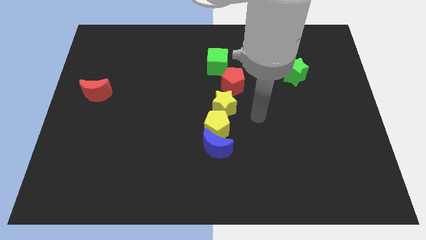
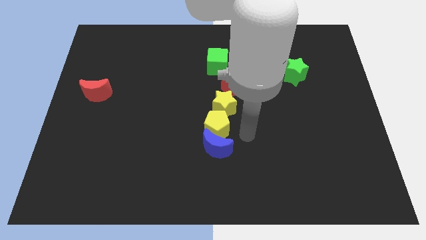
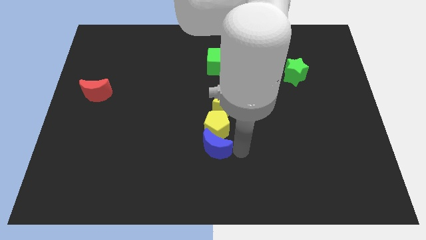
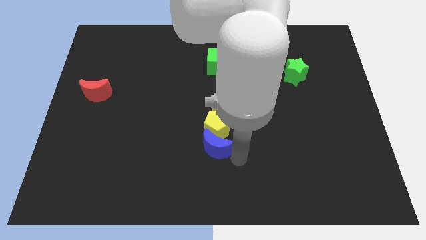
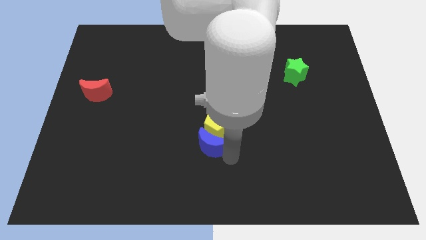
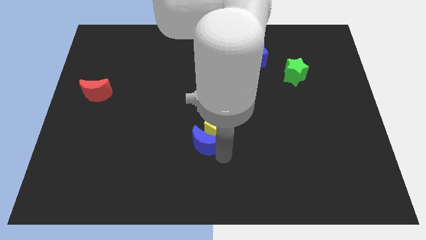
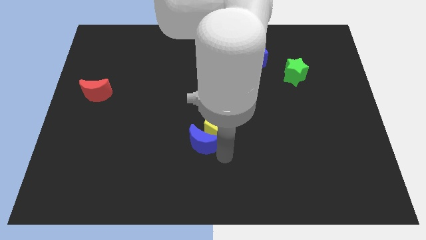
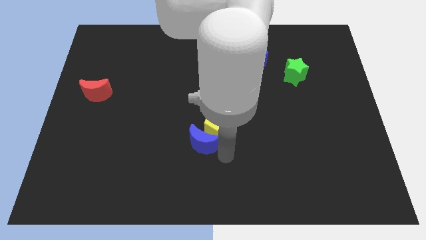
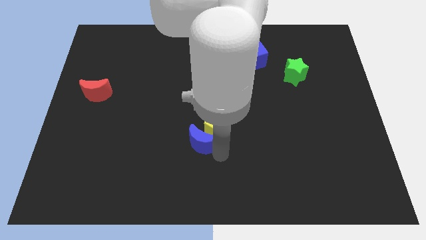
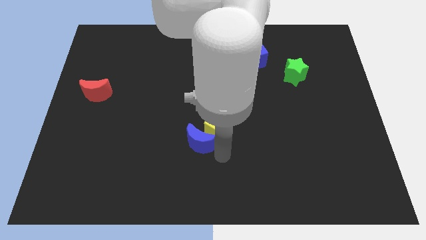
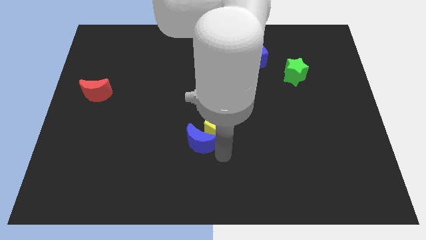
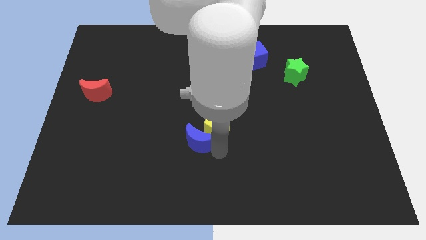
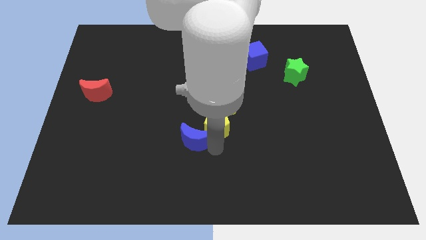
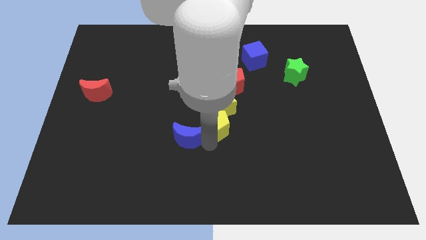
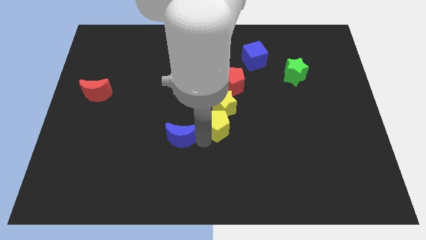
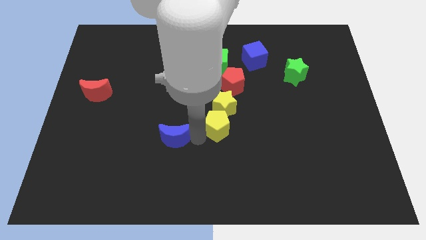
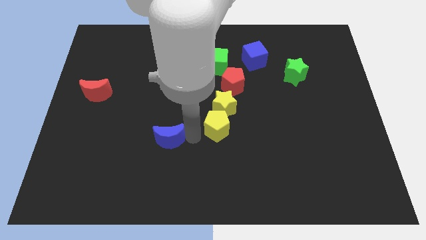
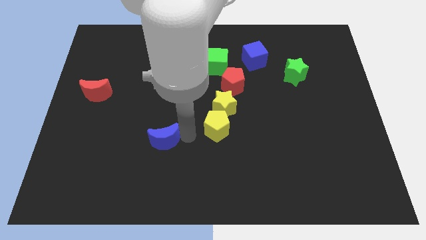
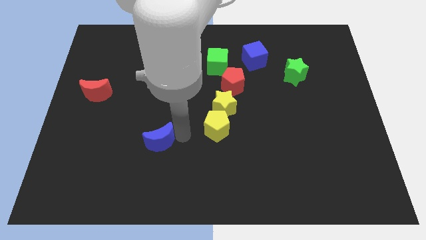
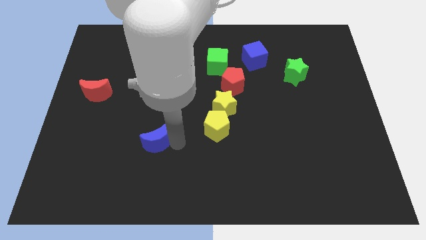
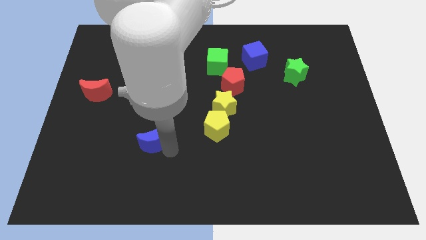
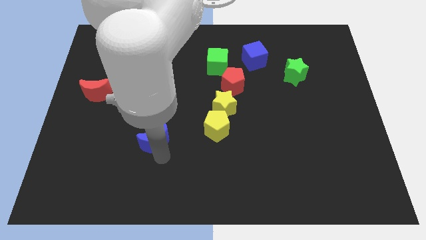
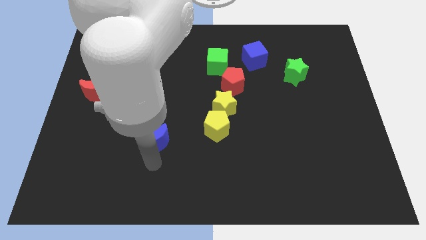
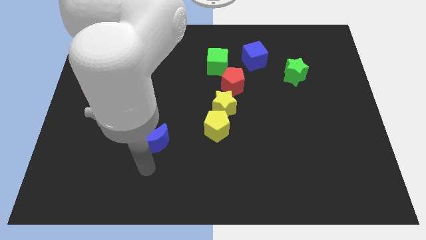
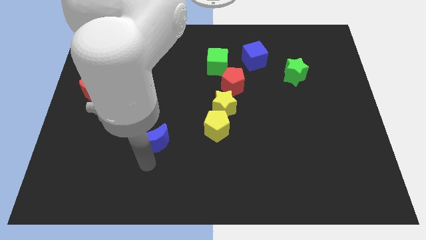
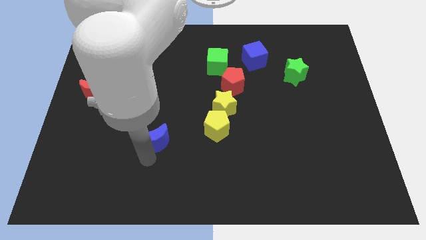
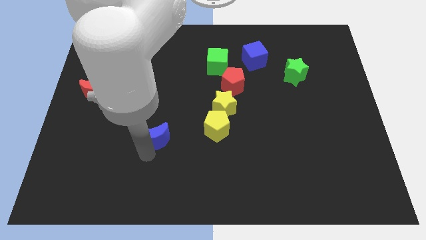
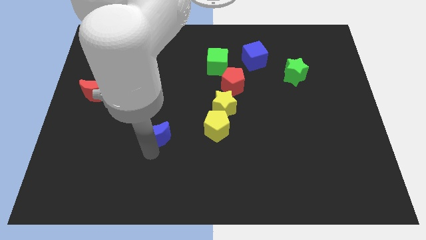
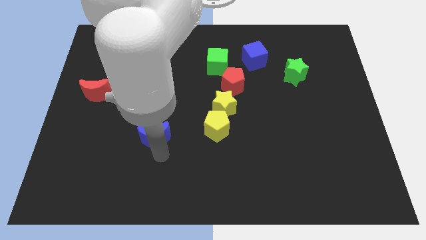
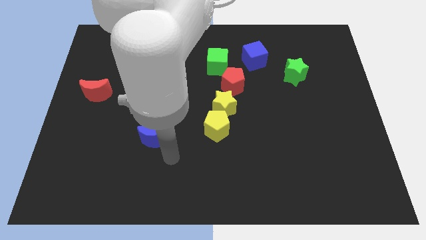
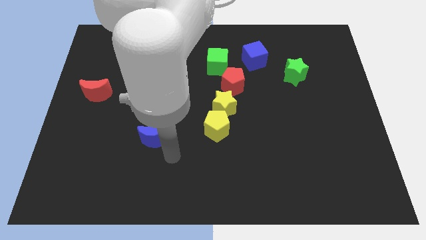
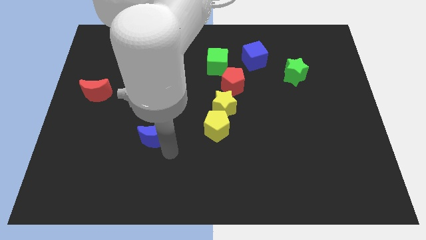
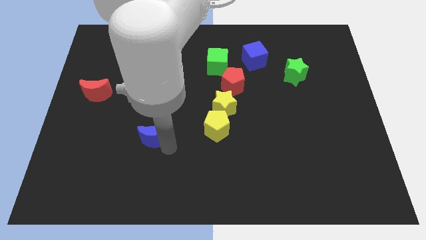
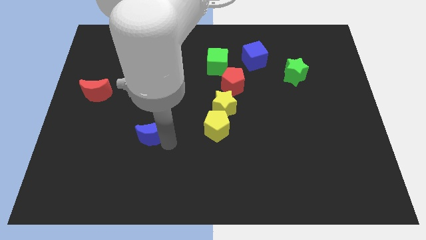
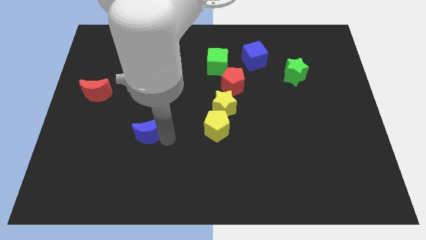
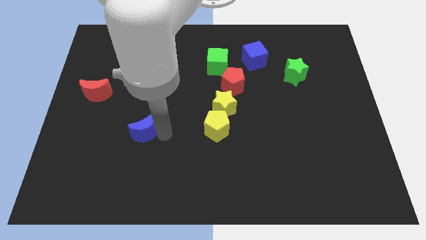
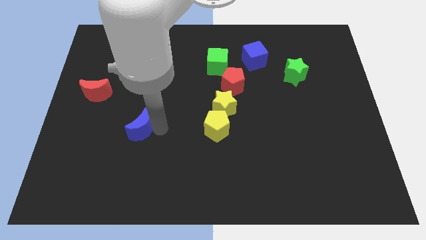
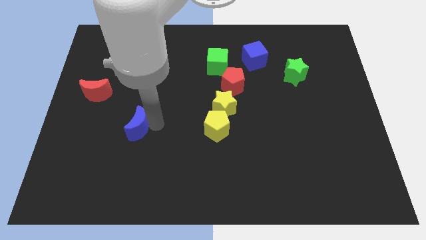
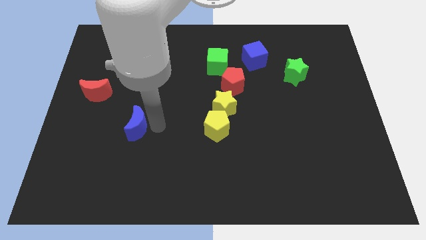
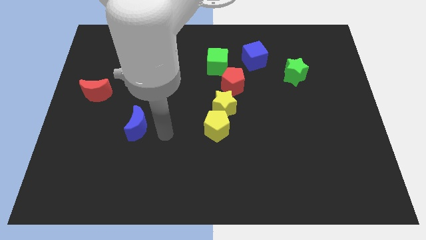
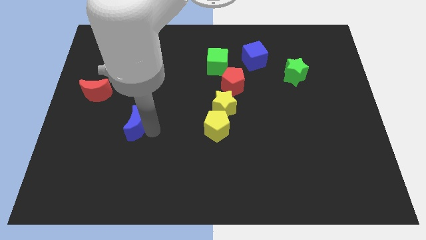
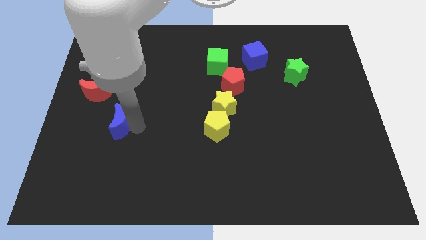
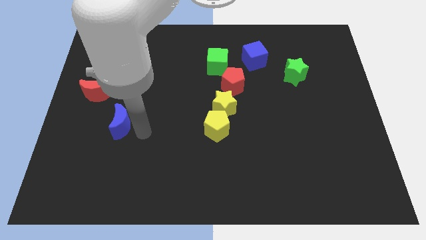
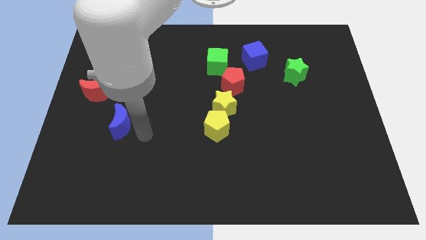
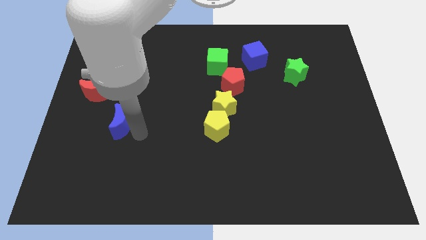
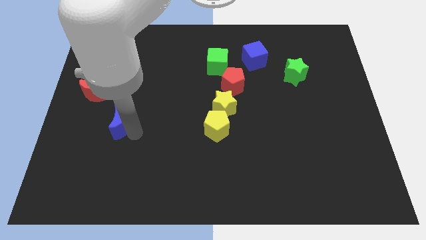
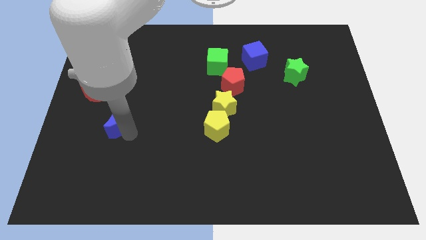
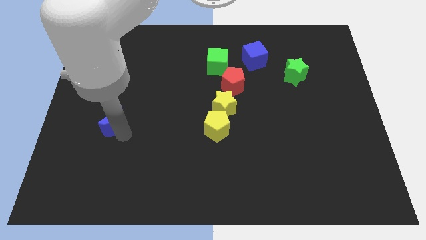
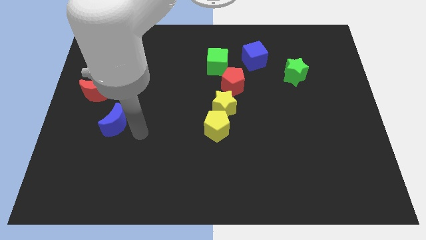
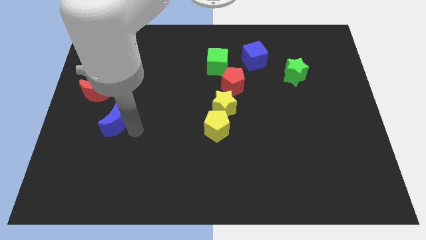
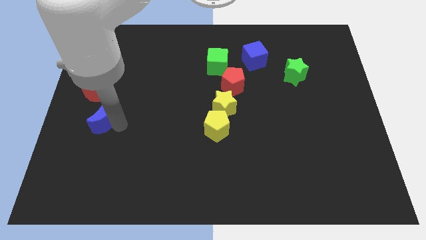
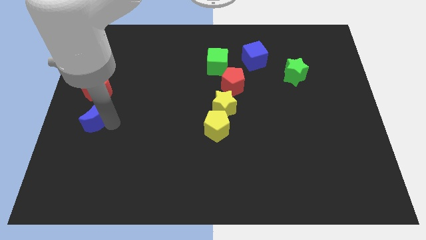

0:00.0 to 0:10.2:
put the blue moon to the left side

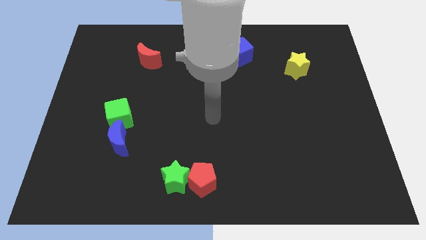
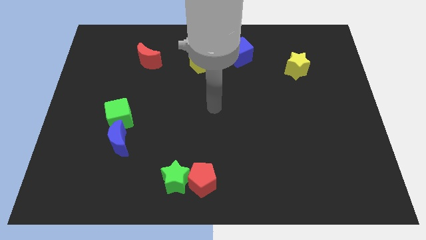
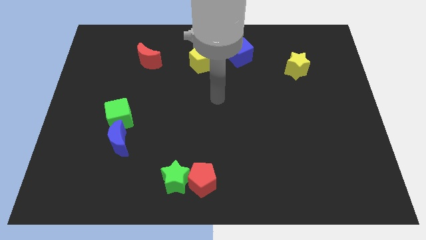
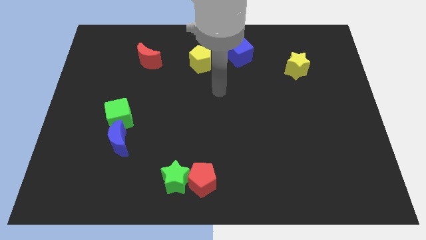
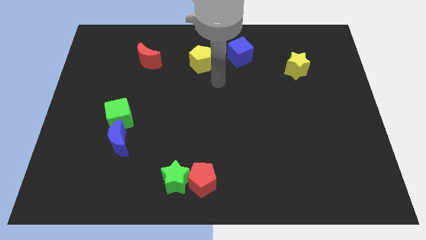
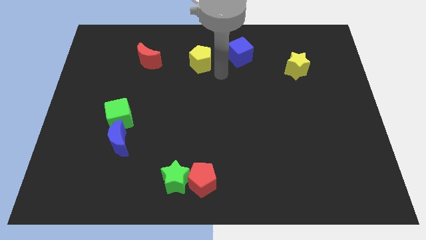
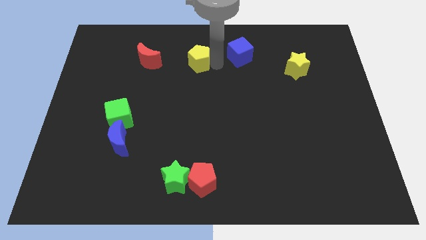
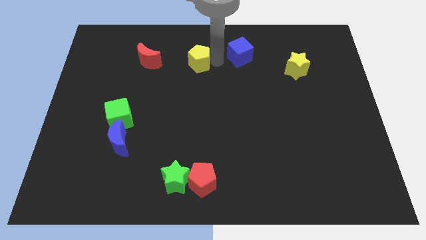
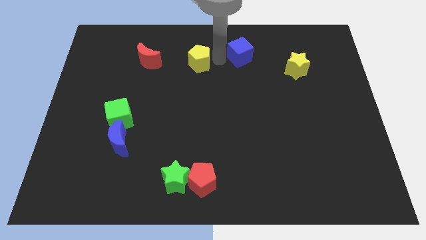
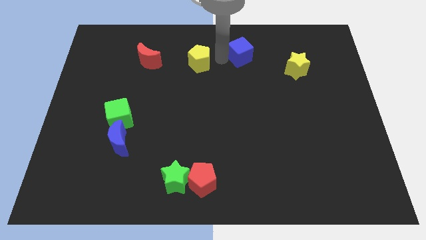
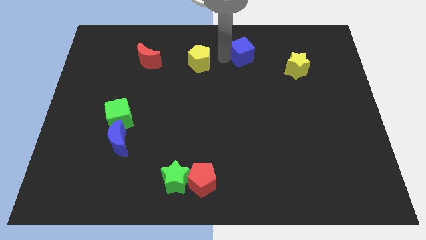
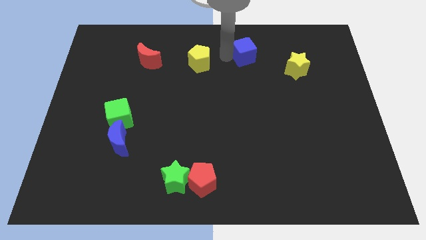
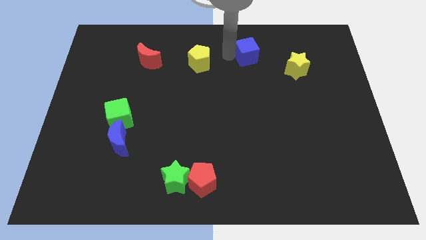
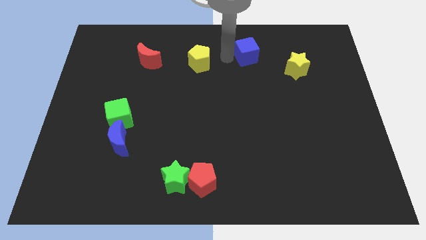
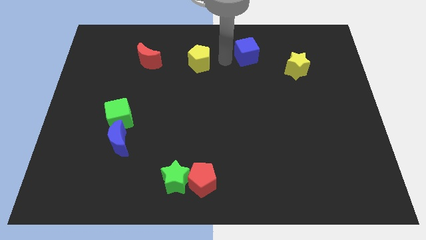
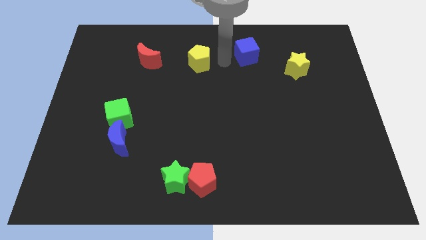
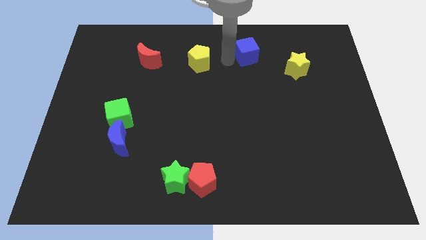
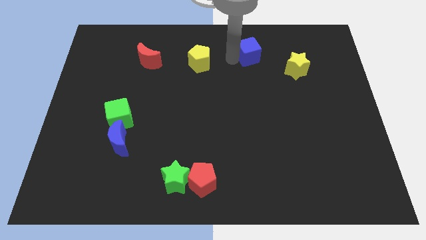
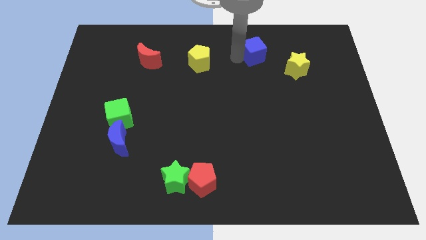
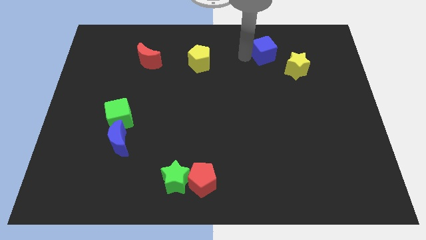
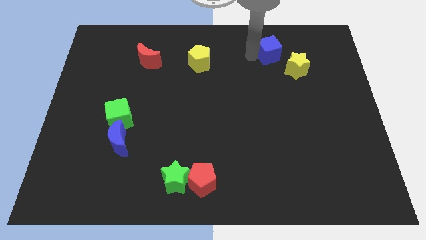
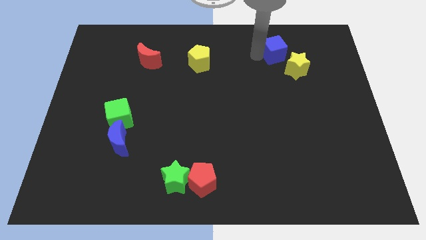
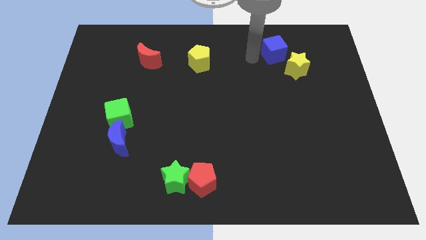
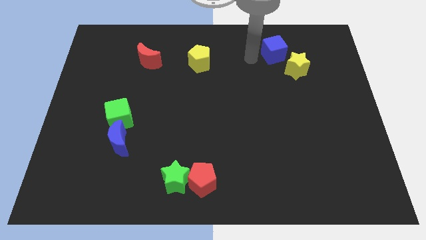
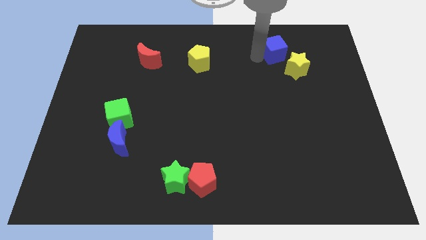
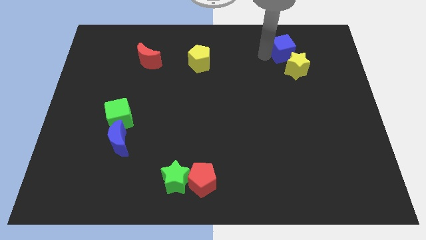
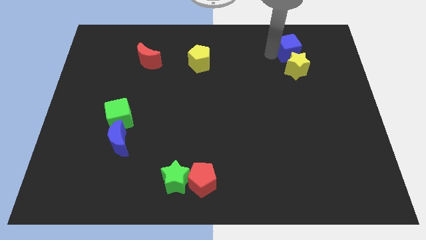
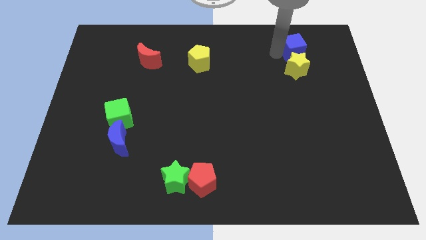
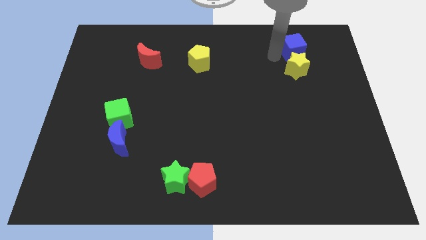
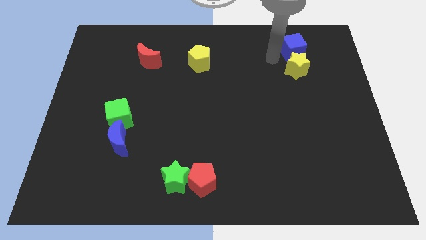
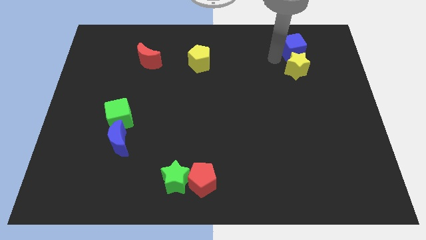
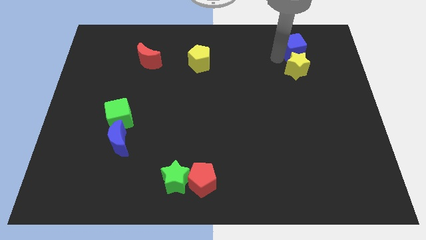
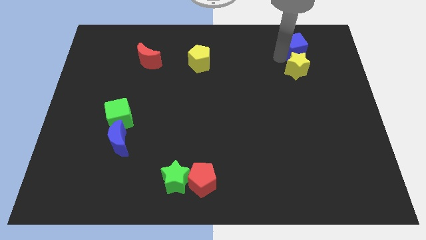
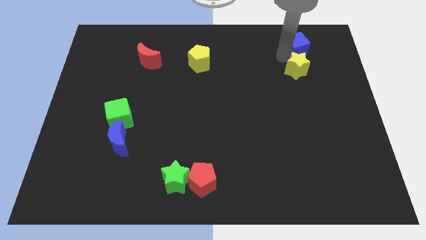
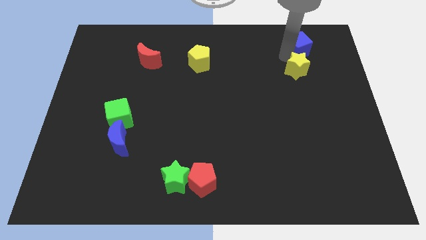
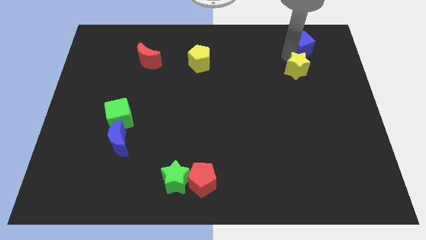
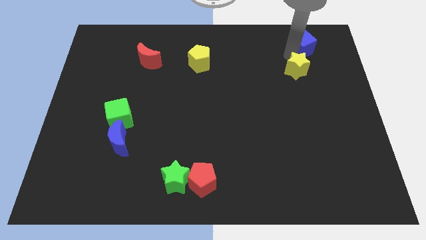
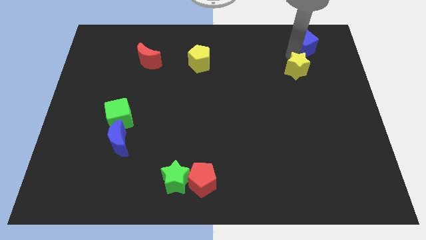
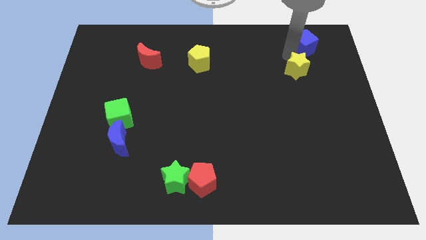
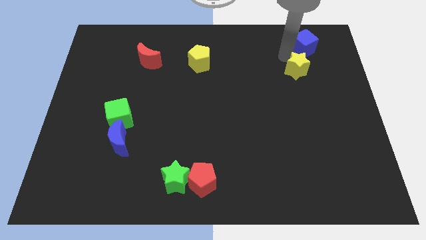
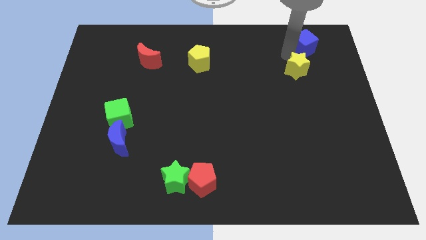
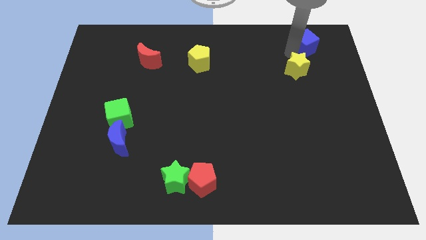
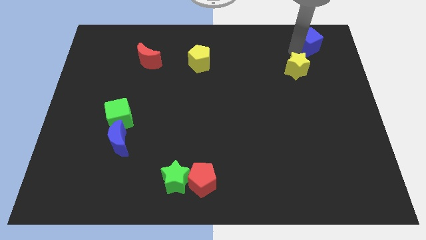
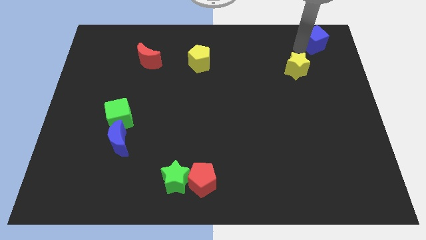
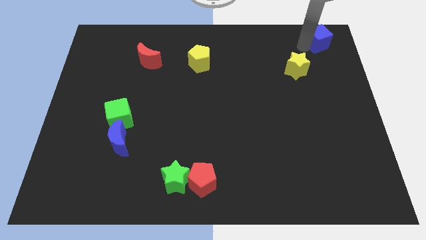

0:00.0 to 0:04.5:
put the blue cube to the top right
